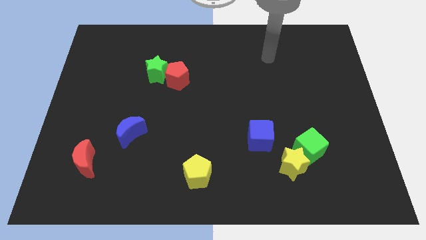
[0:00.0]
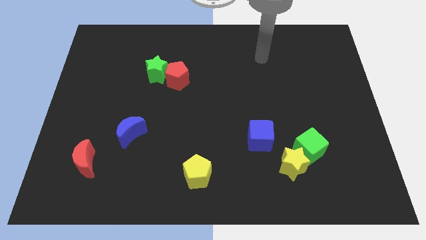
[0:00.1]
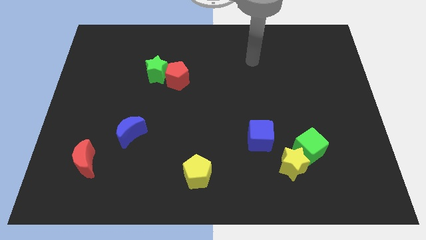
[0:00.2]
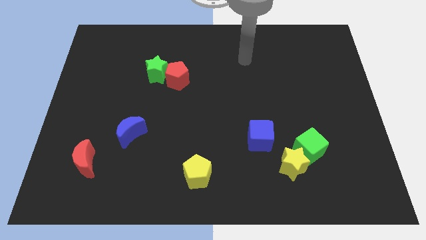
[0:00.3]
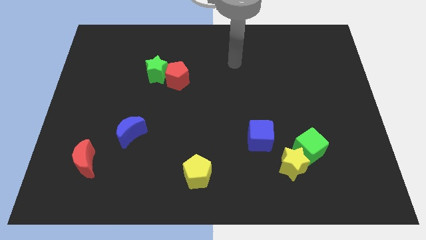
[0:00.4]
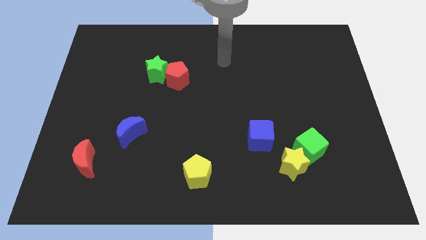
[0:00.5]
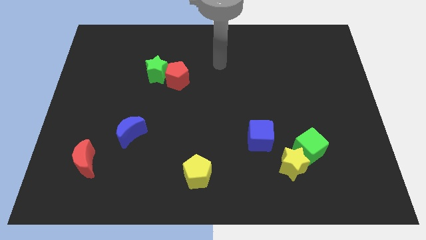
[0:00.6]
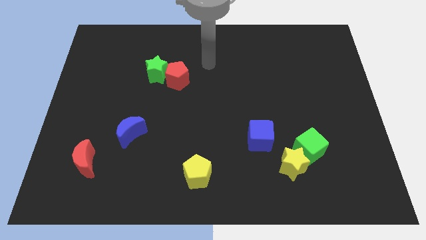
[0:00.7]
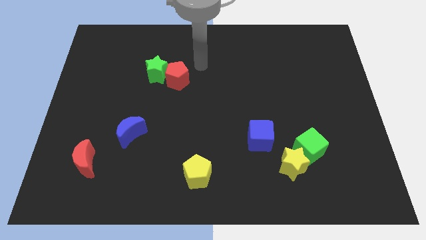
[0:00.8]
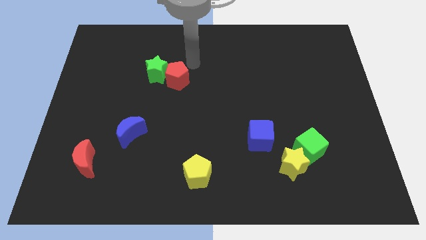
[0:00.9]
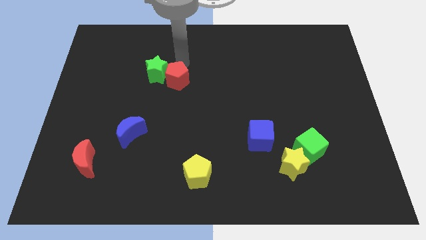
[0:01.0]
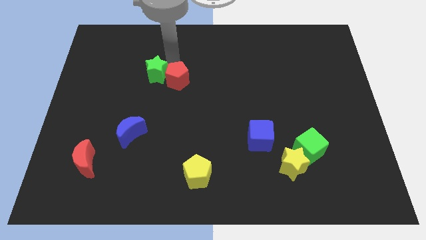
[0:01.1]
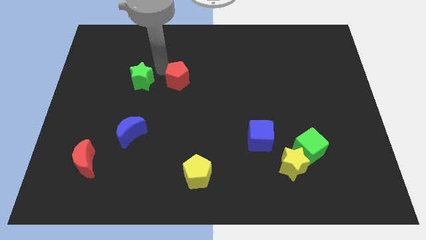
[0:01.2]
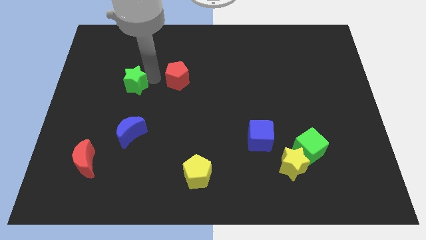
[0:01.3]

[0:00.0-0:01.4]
pull the red pentagon apart from the green star

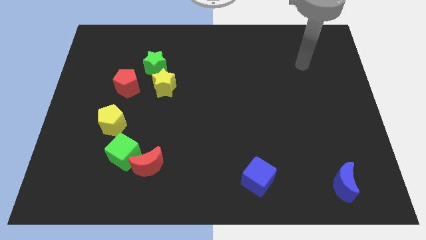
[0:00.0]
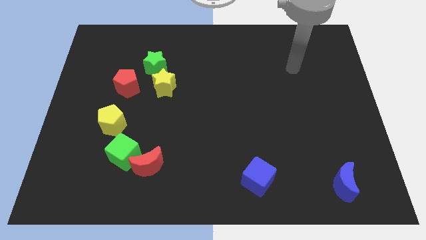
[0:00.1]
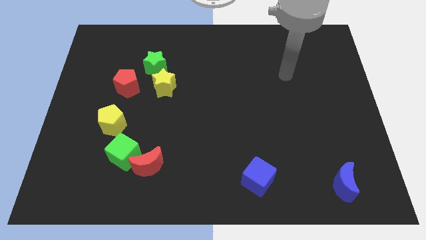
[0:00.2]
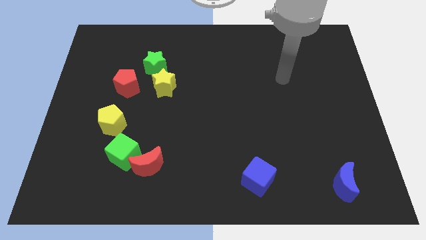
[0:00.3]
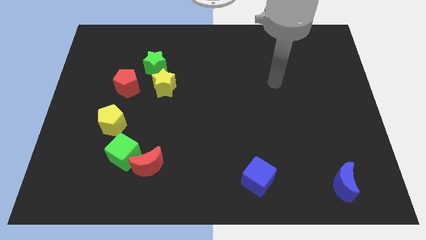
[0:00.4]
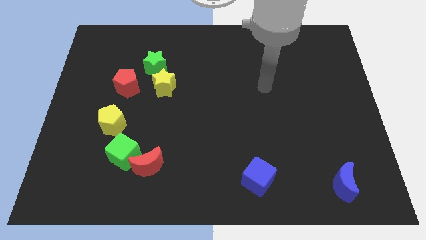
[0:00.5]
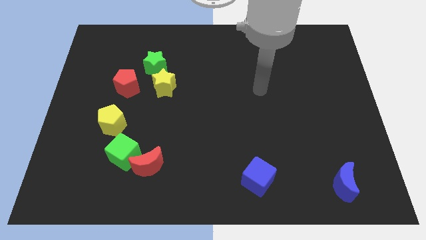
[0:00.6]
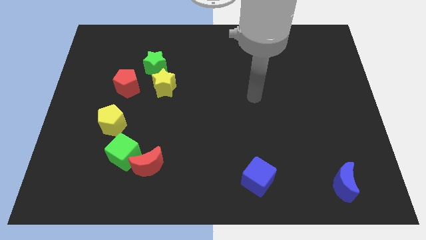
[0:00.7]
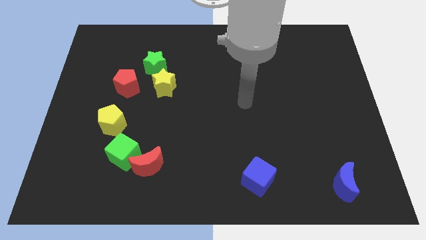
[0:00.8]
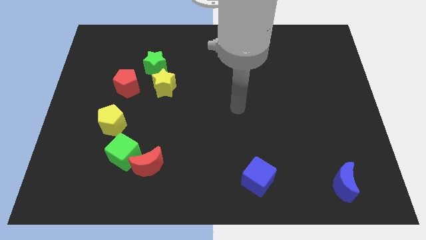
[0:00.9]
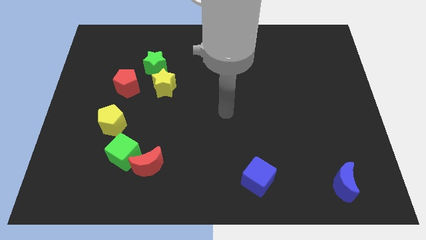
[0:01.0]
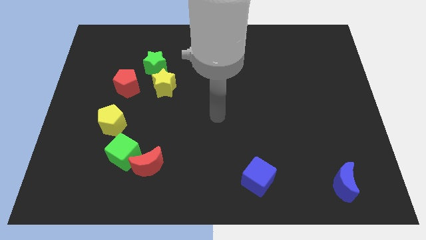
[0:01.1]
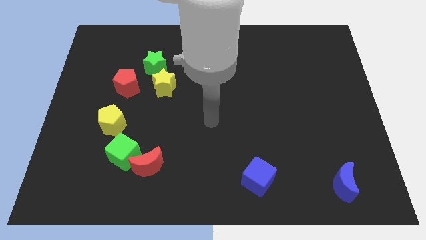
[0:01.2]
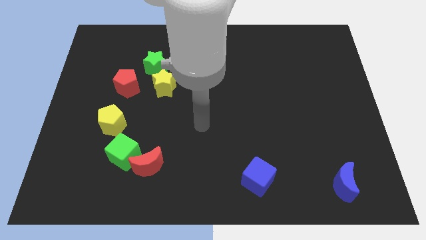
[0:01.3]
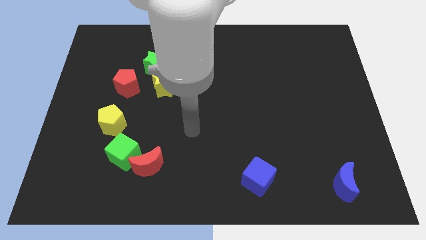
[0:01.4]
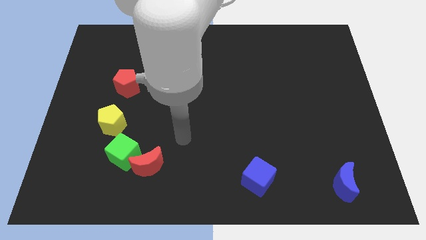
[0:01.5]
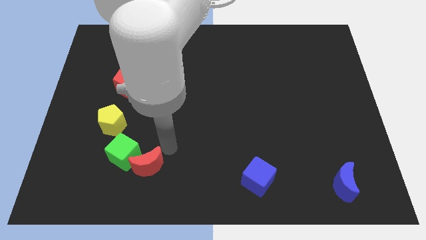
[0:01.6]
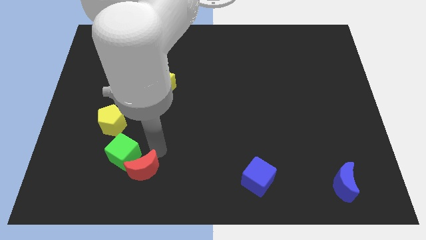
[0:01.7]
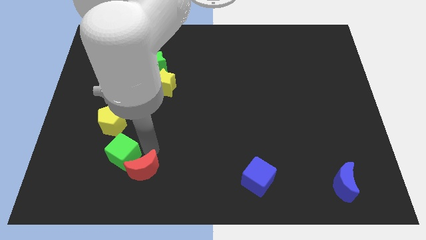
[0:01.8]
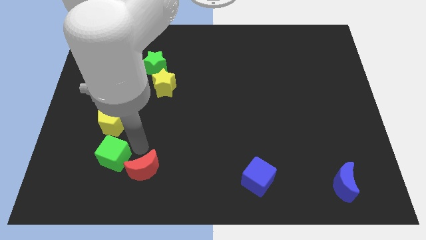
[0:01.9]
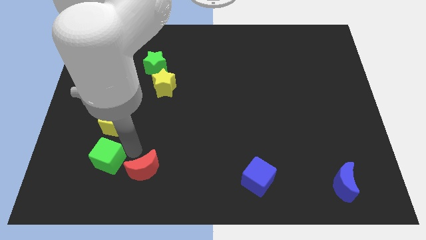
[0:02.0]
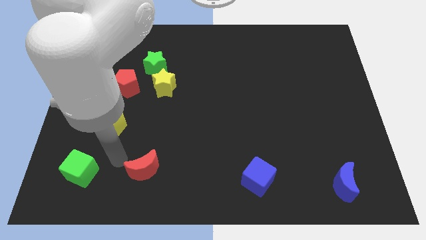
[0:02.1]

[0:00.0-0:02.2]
pull the red moon apart from the green cube

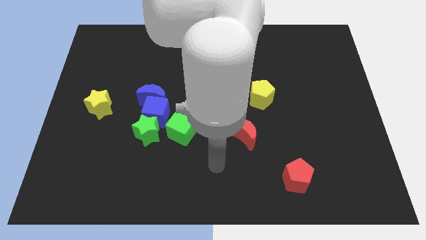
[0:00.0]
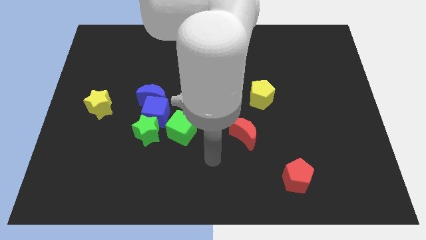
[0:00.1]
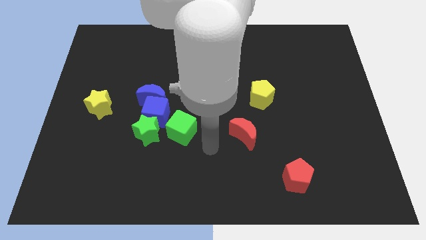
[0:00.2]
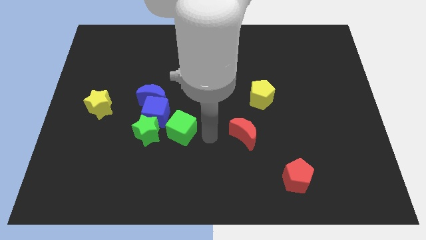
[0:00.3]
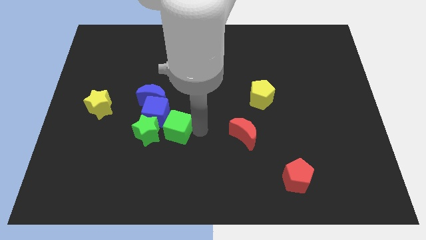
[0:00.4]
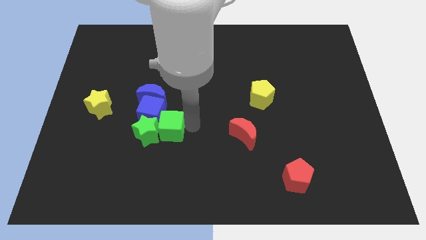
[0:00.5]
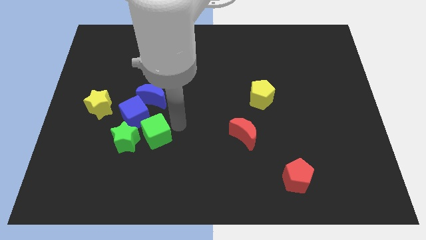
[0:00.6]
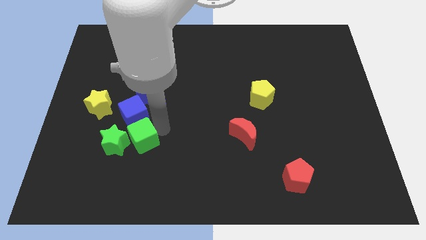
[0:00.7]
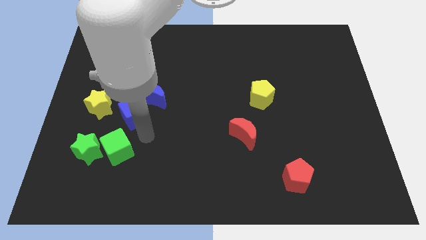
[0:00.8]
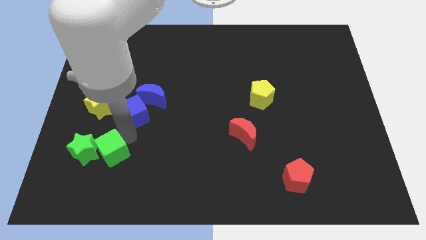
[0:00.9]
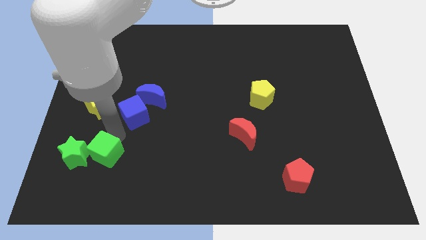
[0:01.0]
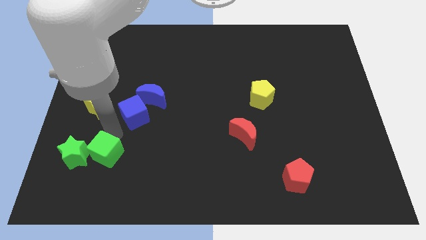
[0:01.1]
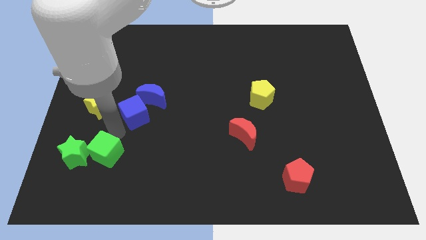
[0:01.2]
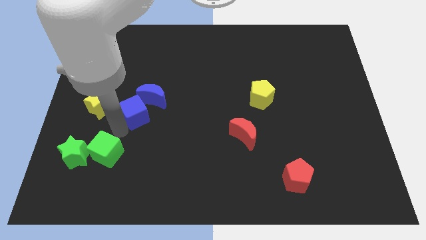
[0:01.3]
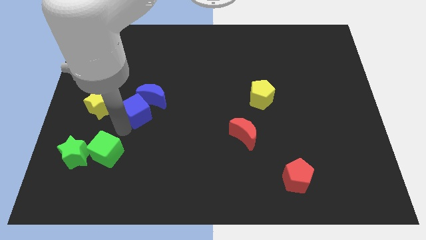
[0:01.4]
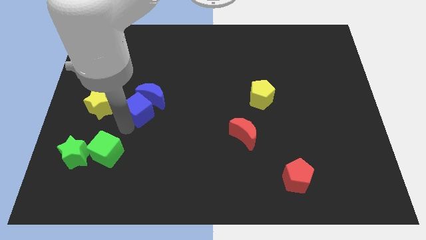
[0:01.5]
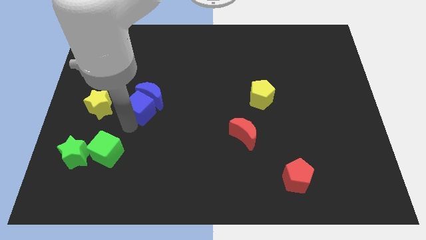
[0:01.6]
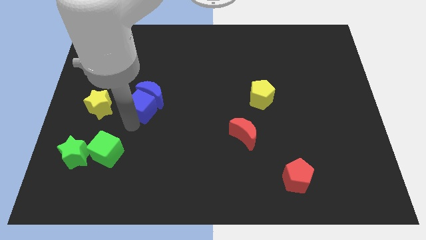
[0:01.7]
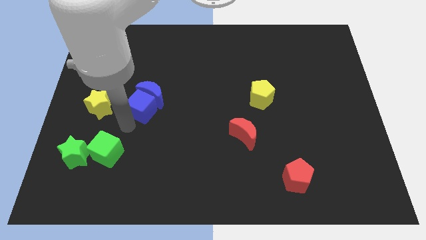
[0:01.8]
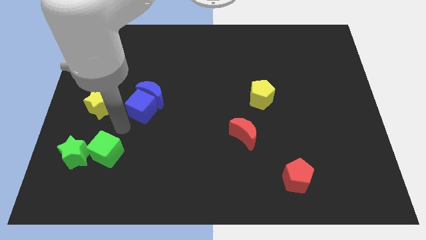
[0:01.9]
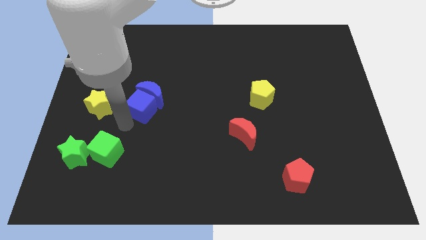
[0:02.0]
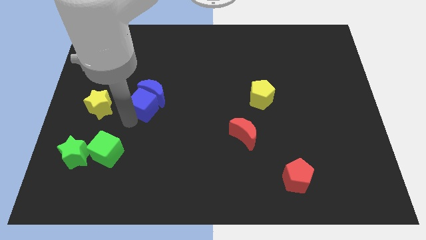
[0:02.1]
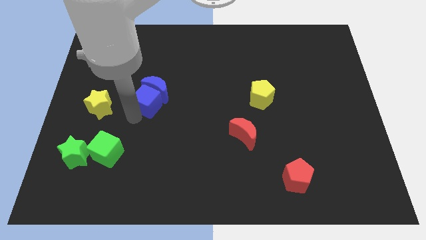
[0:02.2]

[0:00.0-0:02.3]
move the blue cube away from the group

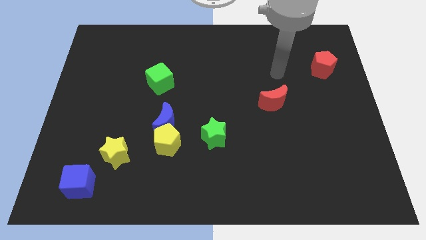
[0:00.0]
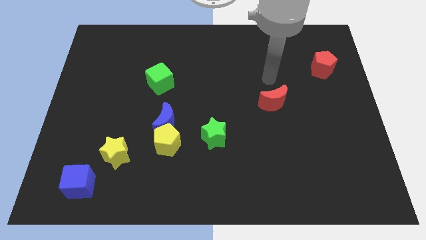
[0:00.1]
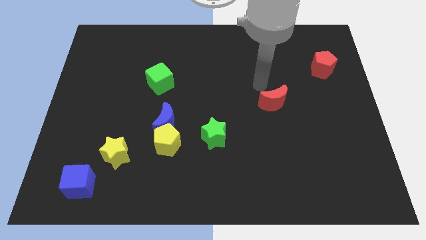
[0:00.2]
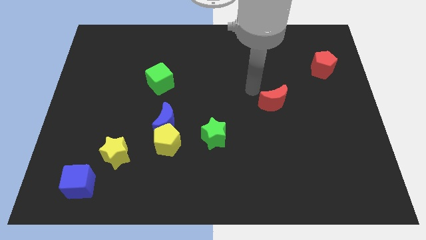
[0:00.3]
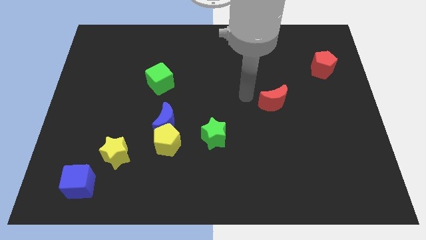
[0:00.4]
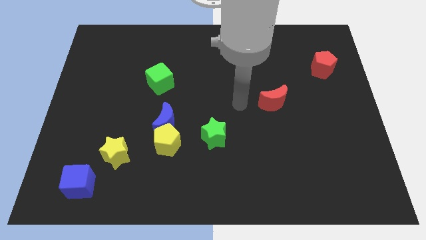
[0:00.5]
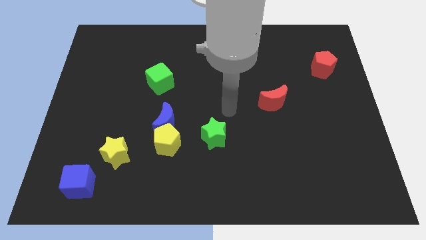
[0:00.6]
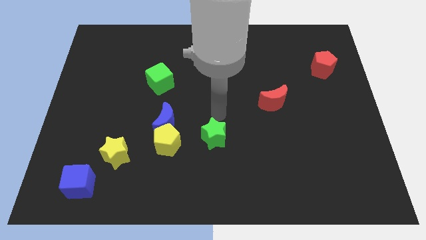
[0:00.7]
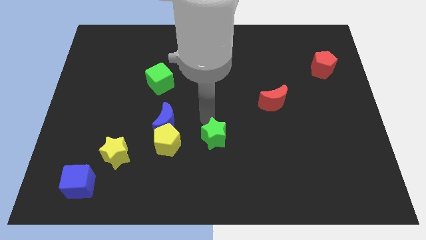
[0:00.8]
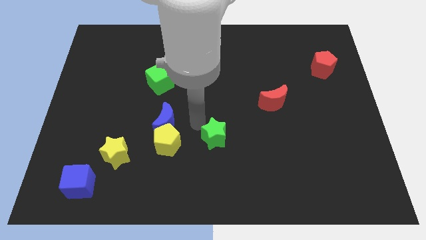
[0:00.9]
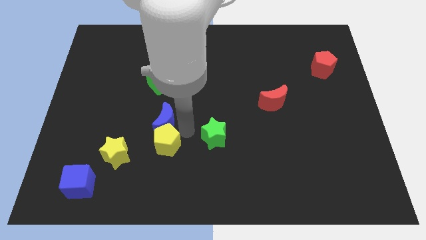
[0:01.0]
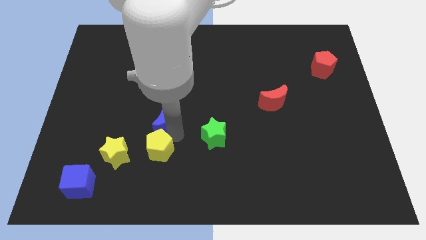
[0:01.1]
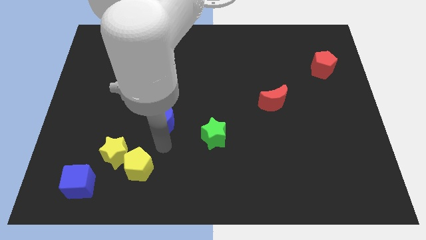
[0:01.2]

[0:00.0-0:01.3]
move the blue moon away from the yellow pentagon

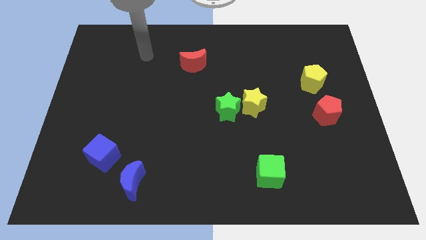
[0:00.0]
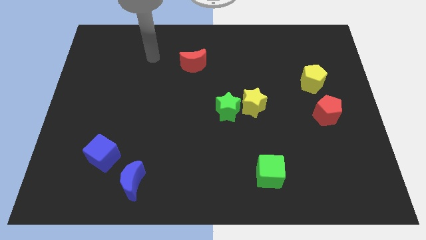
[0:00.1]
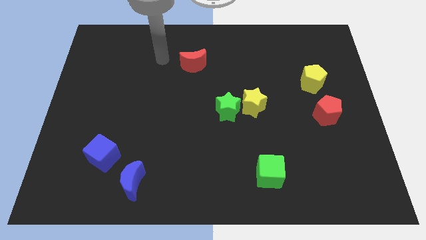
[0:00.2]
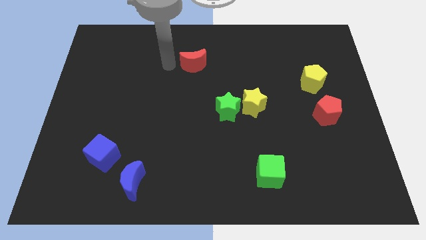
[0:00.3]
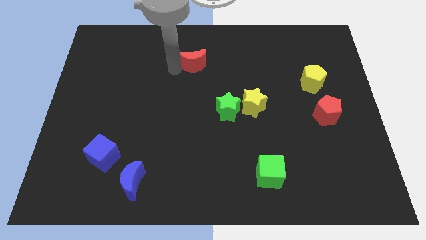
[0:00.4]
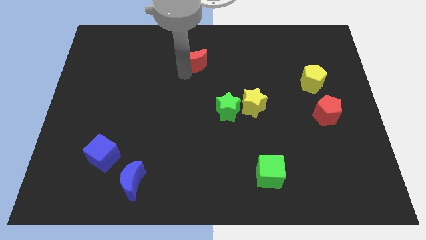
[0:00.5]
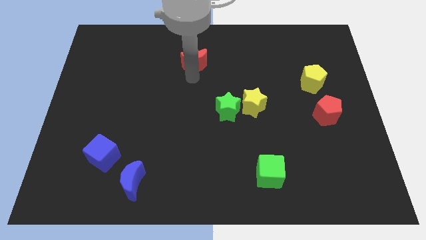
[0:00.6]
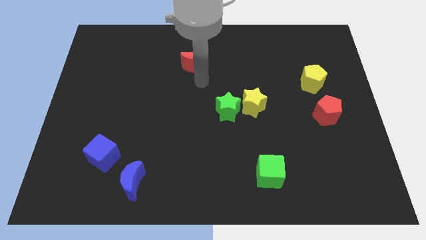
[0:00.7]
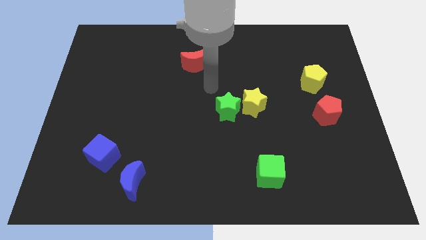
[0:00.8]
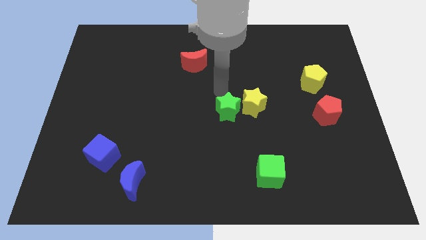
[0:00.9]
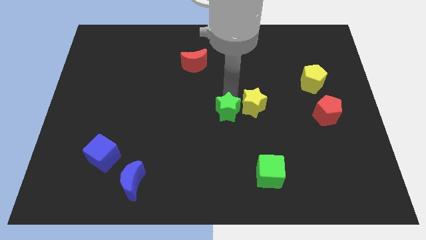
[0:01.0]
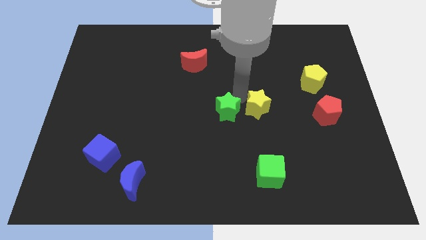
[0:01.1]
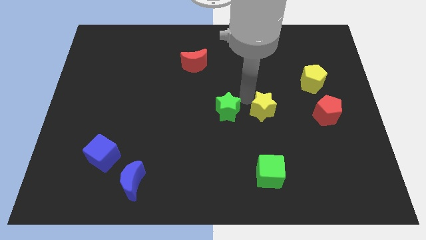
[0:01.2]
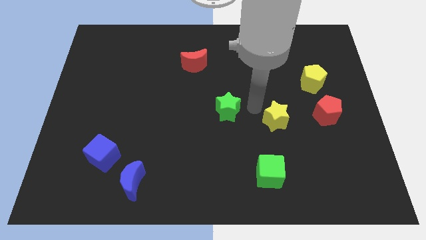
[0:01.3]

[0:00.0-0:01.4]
pull the green star apart from the yellow star

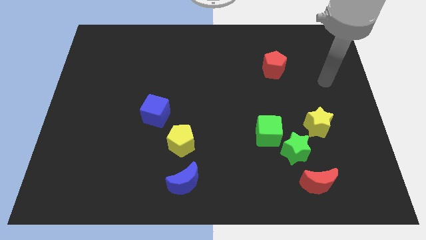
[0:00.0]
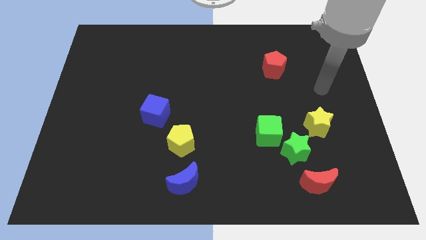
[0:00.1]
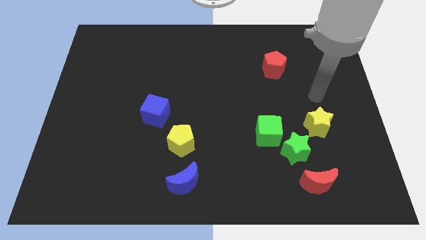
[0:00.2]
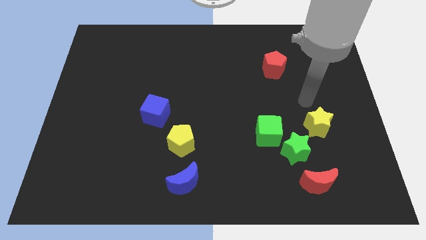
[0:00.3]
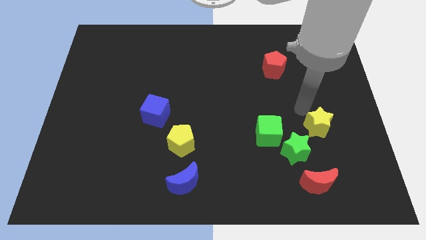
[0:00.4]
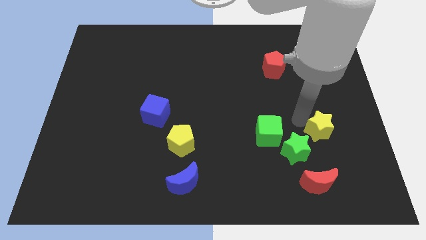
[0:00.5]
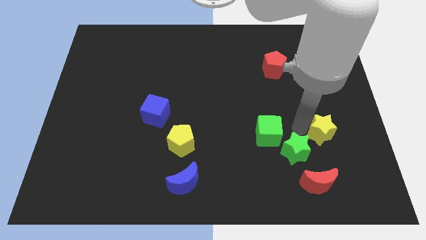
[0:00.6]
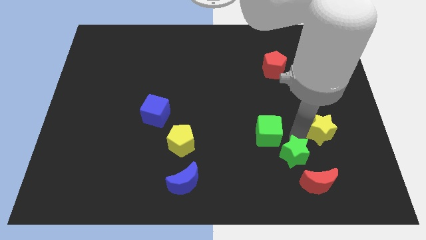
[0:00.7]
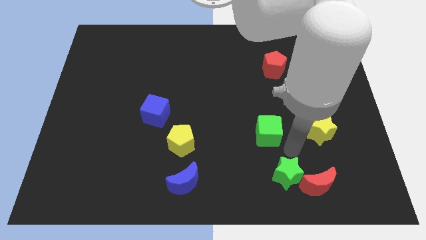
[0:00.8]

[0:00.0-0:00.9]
separate the green cube from the green star
